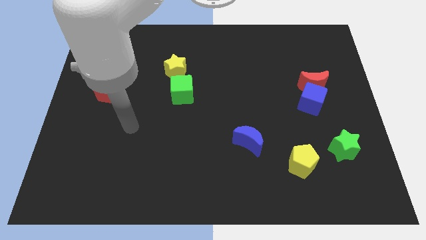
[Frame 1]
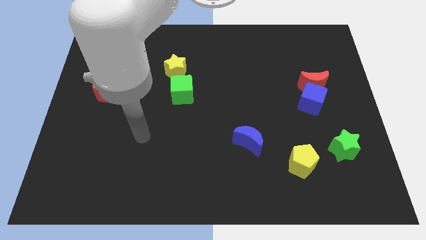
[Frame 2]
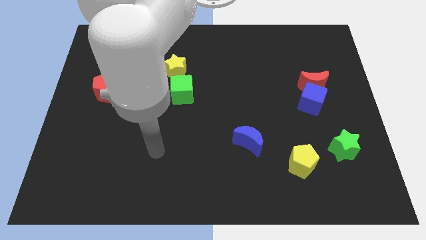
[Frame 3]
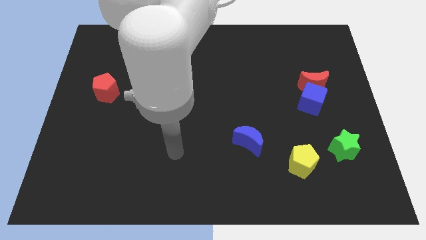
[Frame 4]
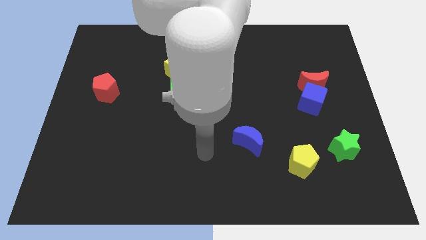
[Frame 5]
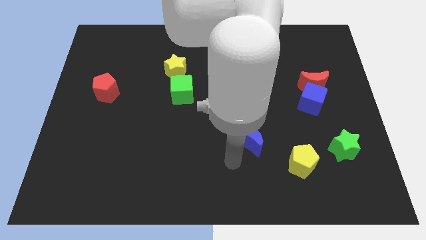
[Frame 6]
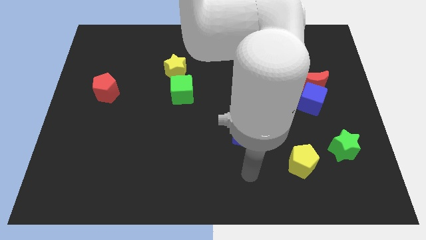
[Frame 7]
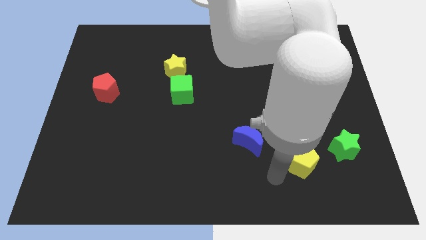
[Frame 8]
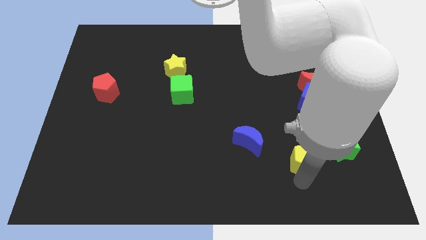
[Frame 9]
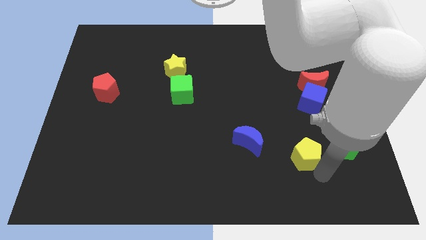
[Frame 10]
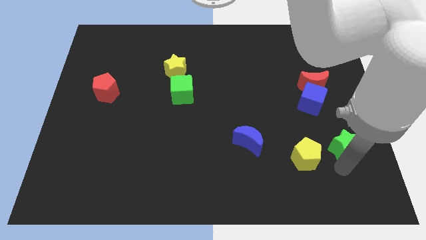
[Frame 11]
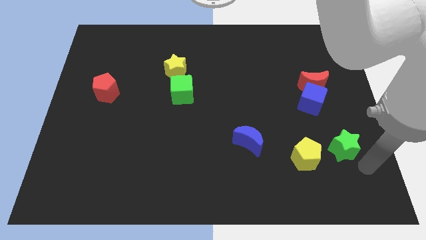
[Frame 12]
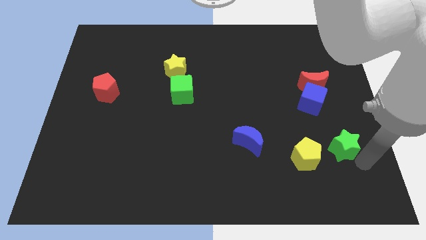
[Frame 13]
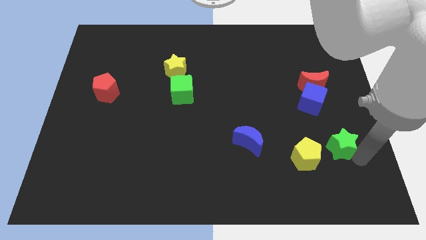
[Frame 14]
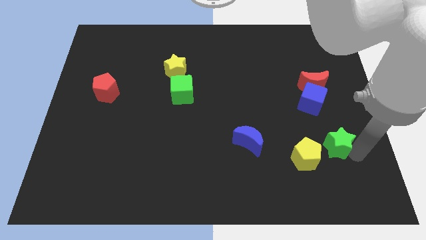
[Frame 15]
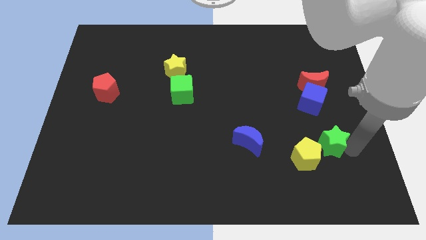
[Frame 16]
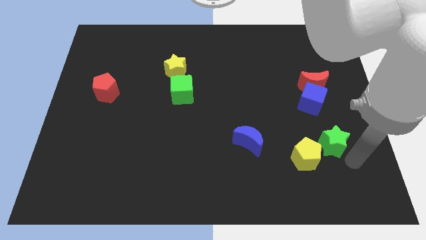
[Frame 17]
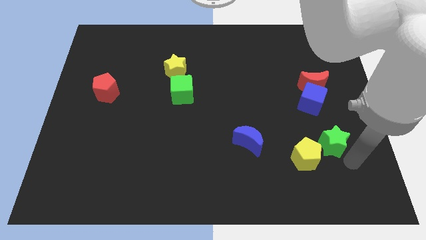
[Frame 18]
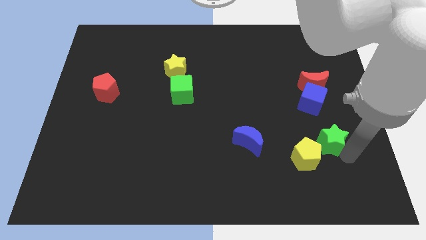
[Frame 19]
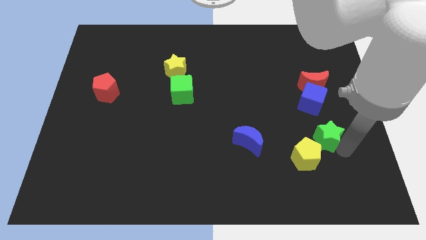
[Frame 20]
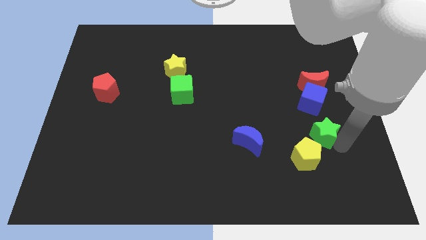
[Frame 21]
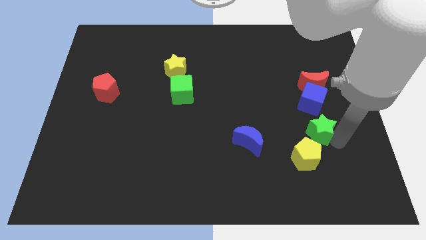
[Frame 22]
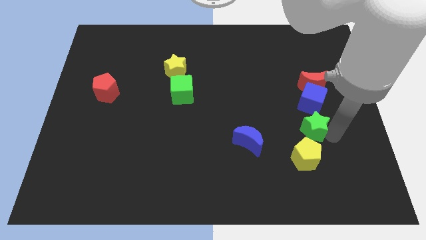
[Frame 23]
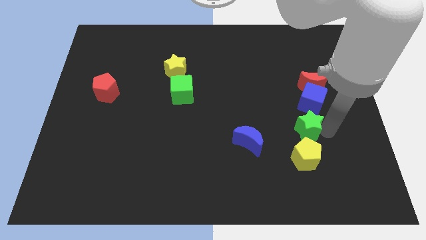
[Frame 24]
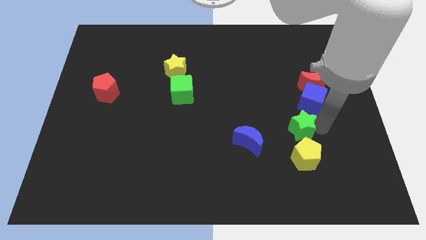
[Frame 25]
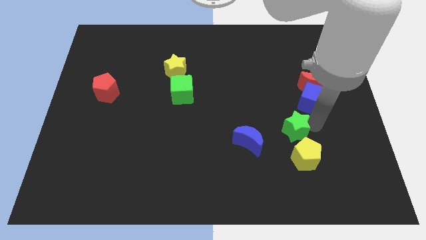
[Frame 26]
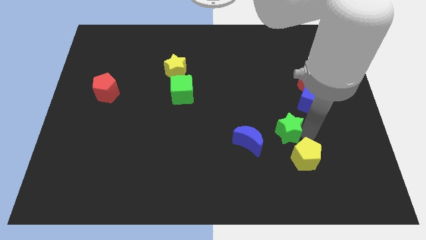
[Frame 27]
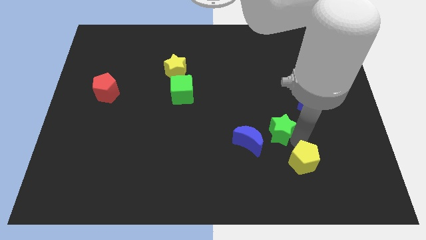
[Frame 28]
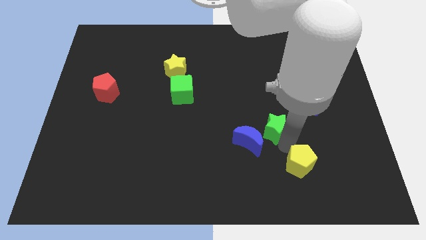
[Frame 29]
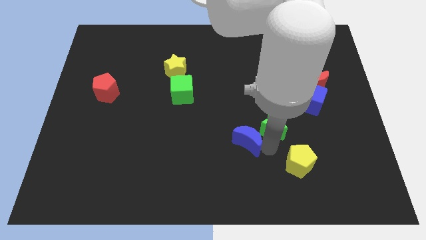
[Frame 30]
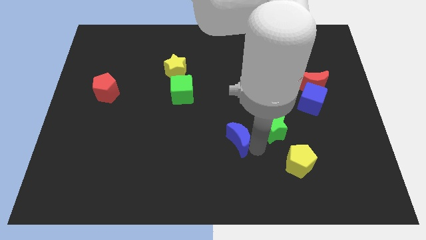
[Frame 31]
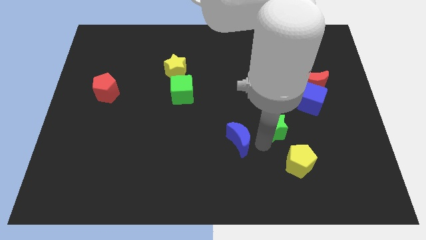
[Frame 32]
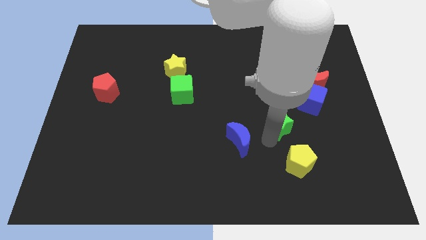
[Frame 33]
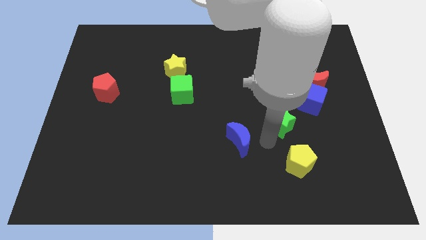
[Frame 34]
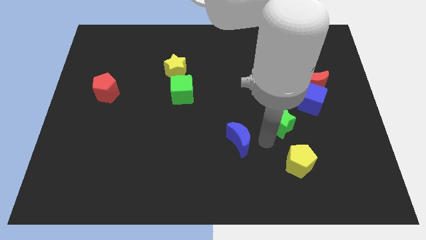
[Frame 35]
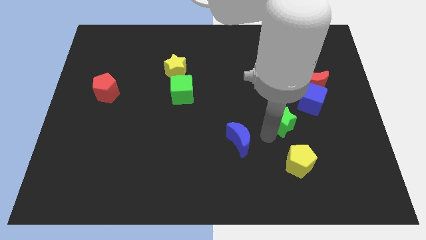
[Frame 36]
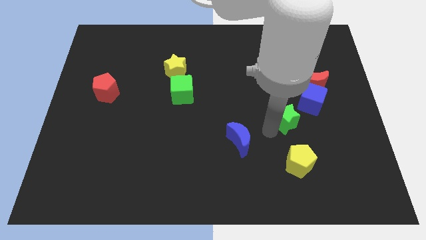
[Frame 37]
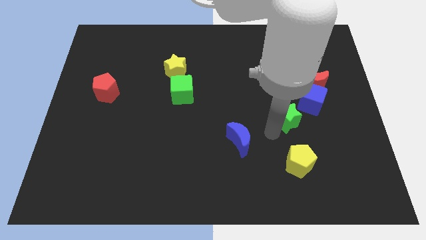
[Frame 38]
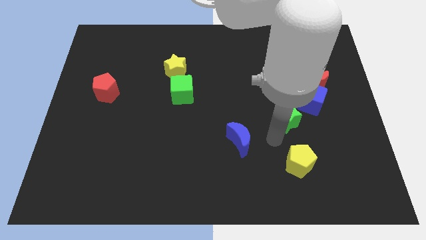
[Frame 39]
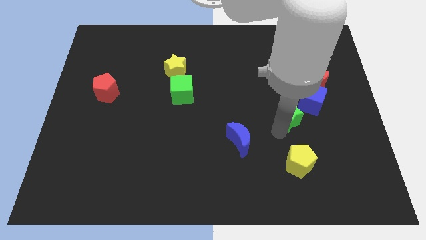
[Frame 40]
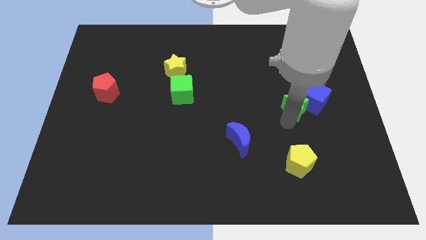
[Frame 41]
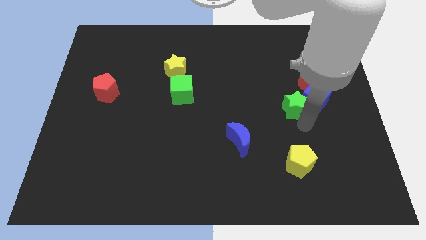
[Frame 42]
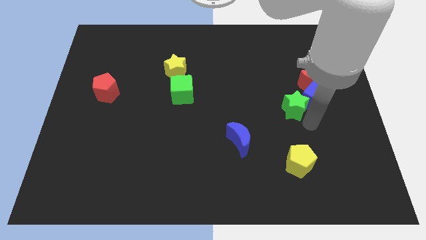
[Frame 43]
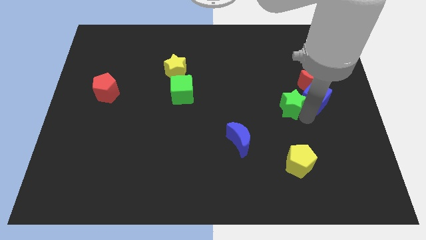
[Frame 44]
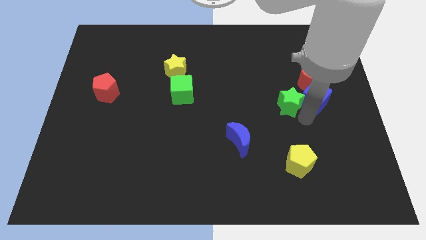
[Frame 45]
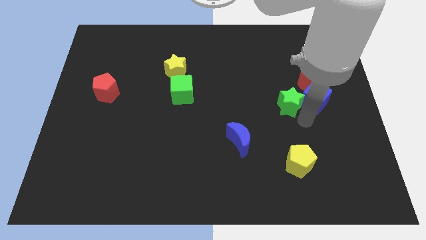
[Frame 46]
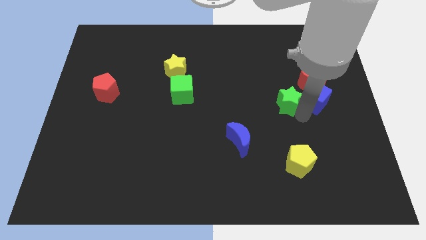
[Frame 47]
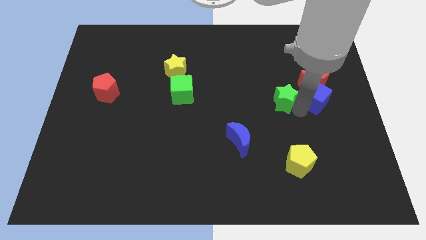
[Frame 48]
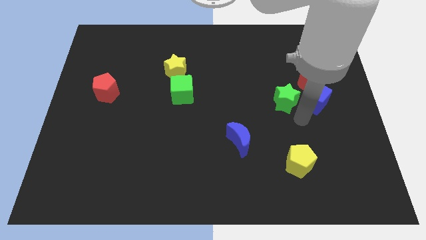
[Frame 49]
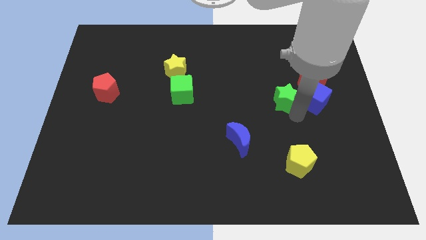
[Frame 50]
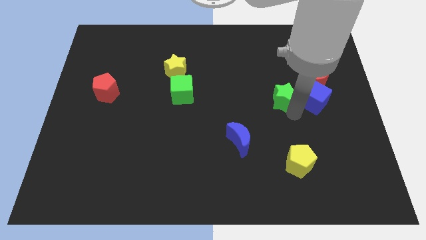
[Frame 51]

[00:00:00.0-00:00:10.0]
slide the green star left of the red moon

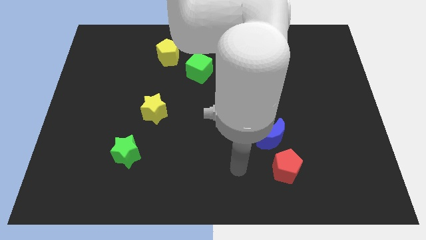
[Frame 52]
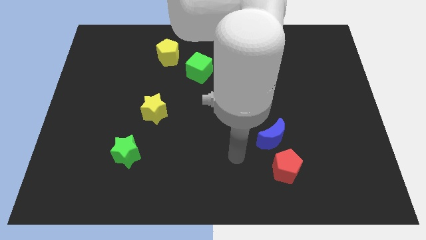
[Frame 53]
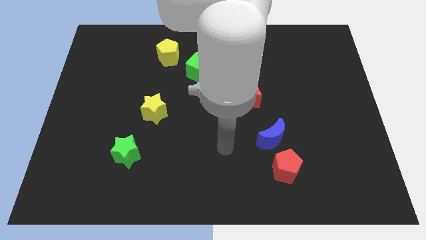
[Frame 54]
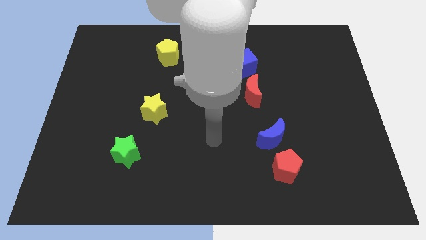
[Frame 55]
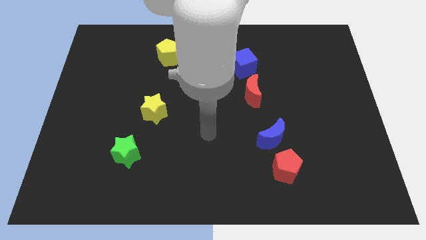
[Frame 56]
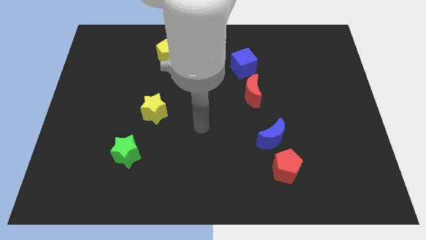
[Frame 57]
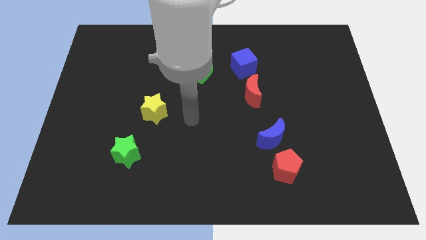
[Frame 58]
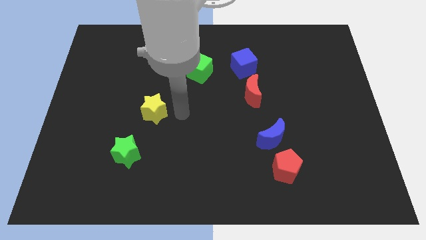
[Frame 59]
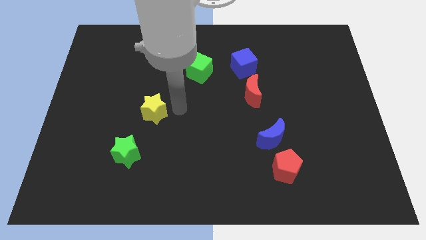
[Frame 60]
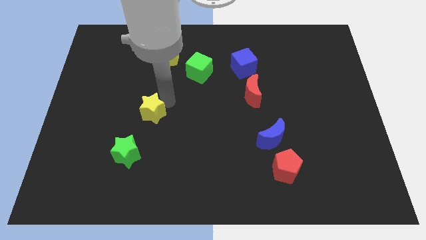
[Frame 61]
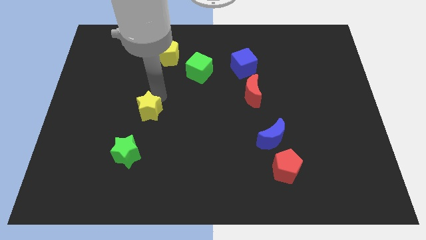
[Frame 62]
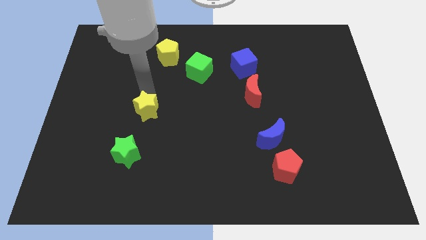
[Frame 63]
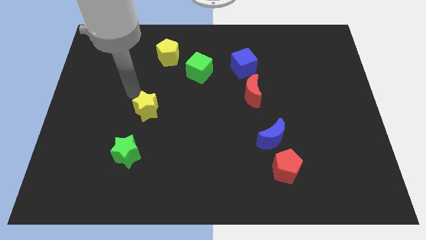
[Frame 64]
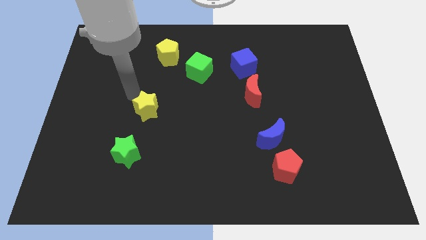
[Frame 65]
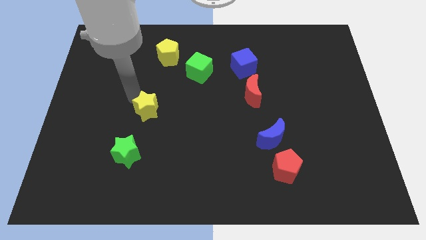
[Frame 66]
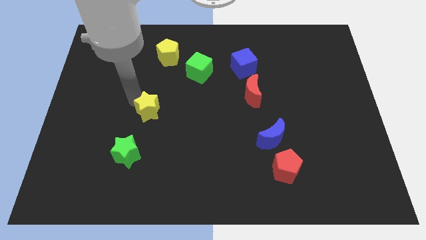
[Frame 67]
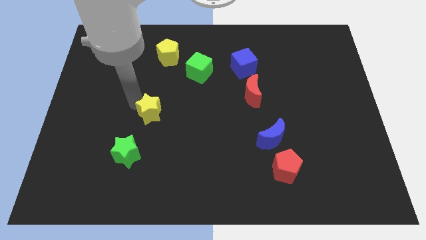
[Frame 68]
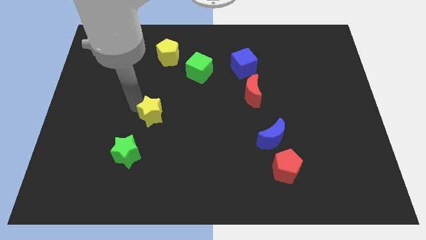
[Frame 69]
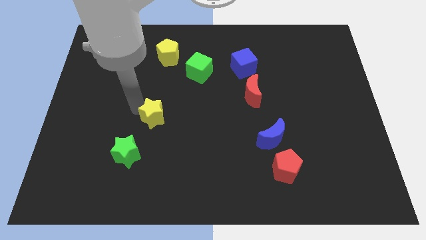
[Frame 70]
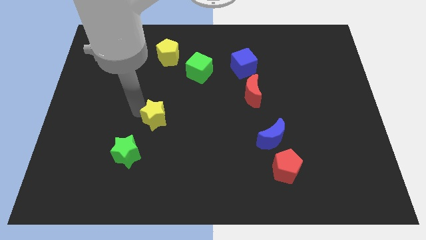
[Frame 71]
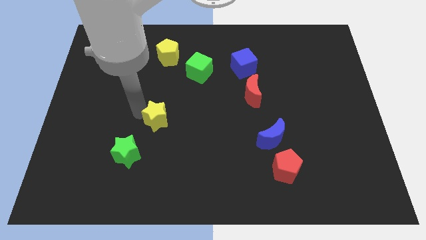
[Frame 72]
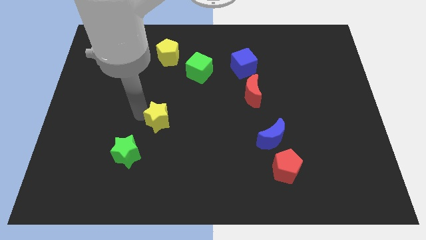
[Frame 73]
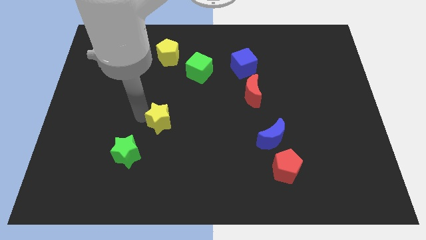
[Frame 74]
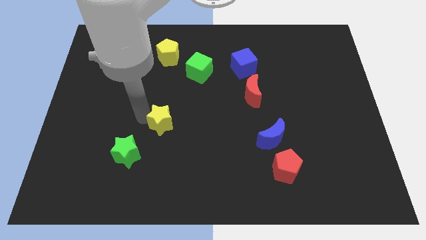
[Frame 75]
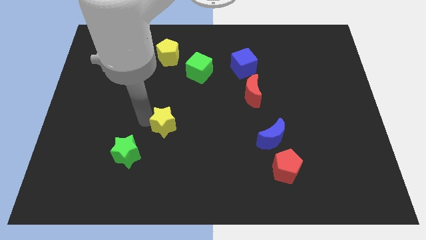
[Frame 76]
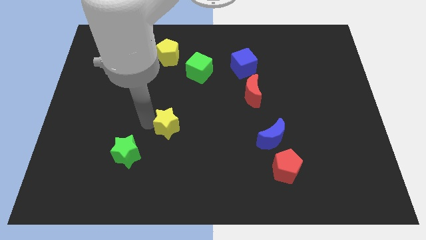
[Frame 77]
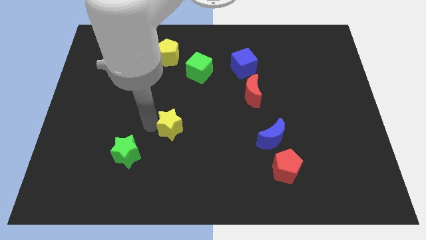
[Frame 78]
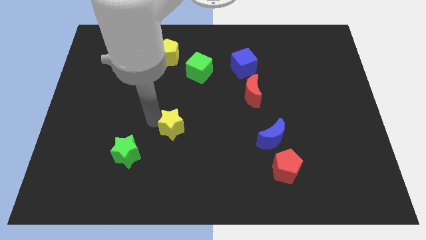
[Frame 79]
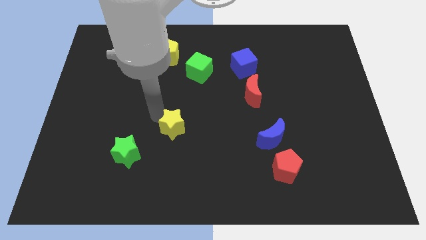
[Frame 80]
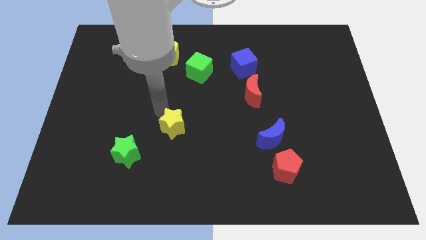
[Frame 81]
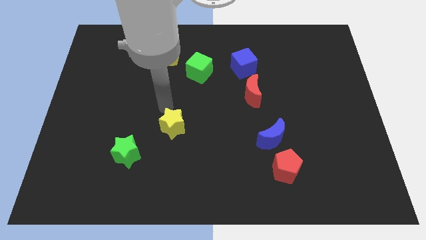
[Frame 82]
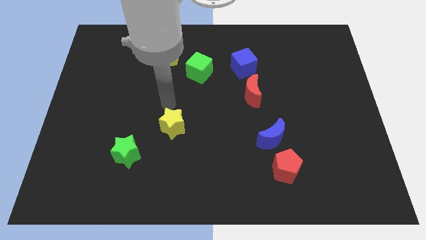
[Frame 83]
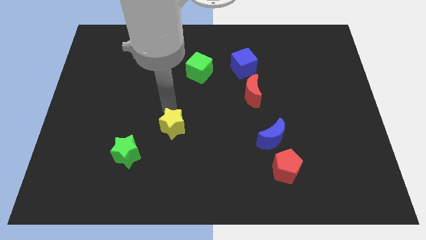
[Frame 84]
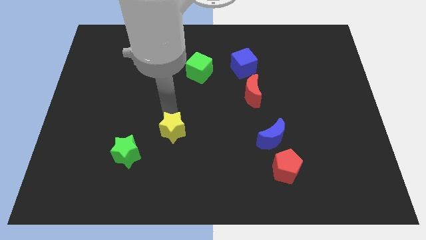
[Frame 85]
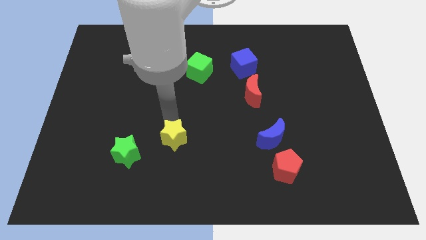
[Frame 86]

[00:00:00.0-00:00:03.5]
slide the yellow star to the right of the green star
